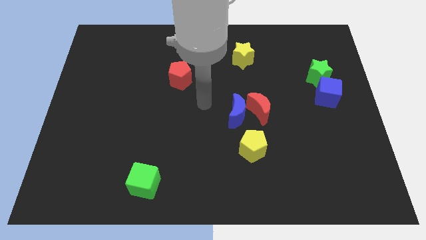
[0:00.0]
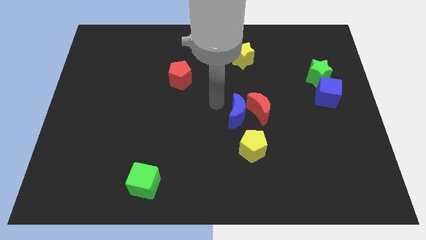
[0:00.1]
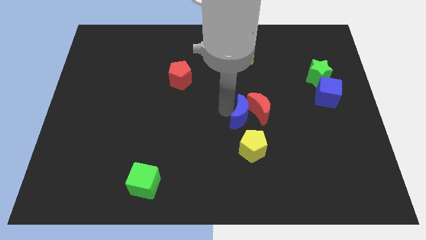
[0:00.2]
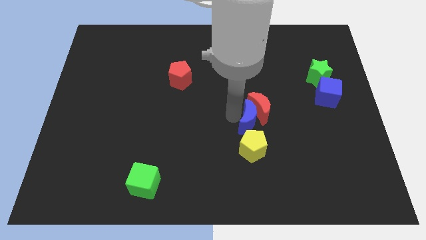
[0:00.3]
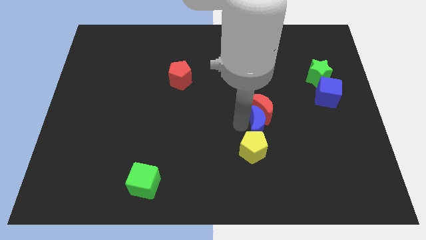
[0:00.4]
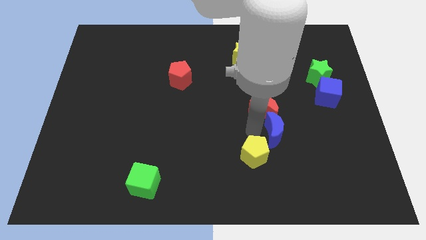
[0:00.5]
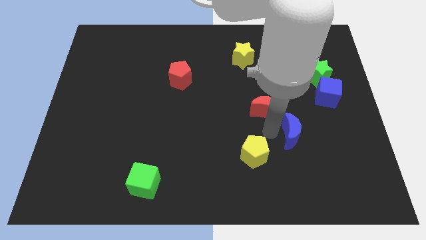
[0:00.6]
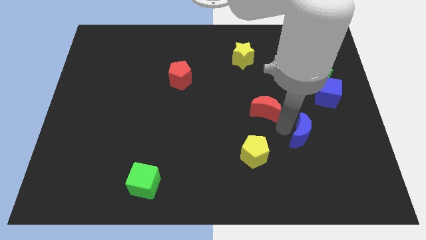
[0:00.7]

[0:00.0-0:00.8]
separate the red moon from the blue moon

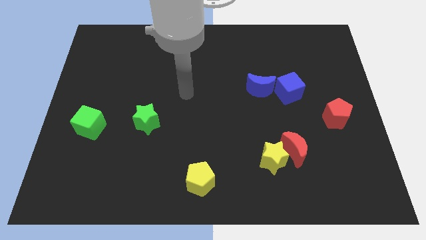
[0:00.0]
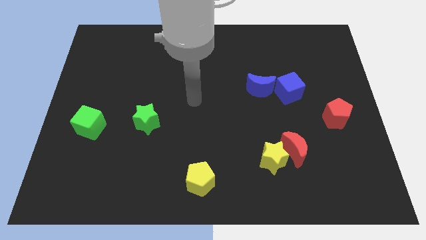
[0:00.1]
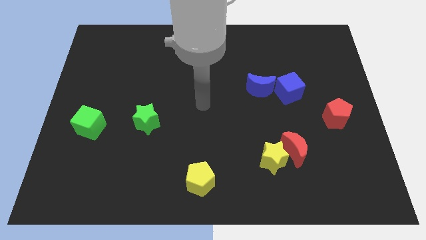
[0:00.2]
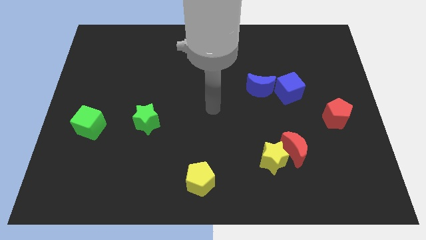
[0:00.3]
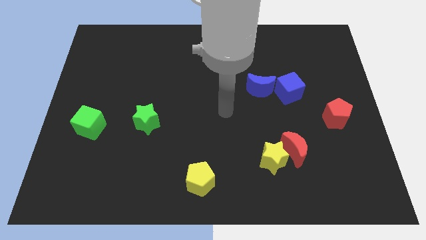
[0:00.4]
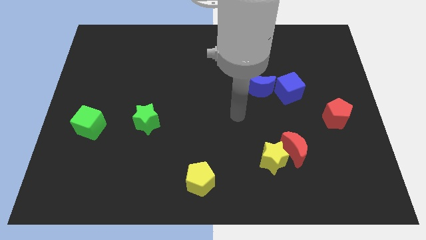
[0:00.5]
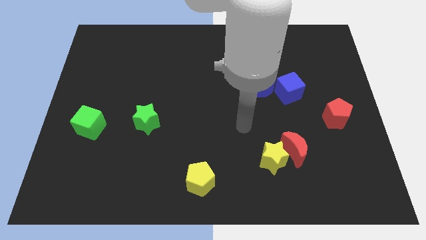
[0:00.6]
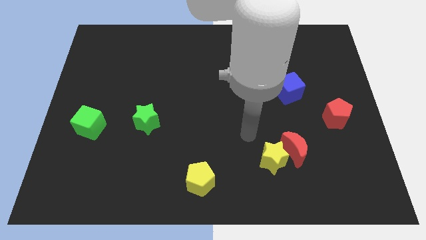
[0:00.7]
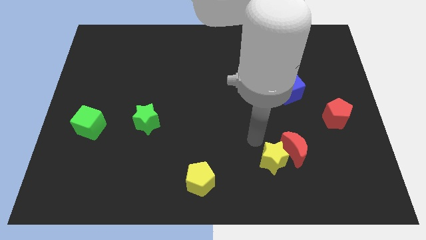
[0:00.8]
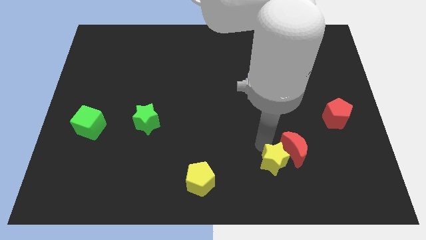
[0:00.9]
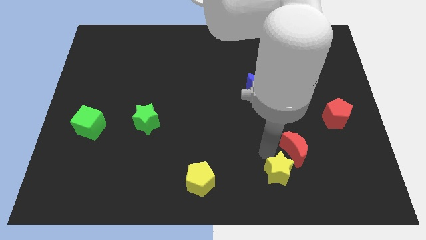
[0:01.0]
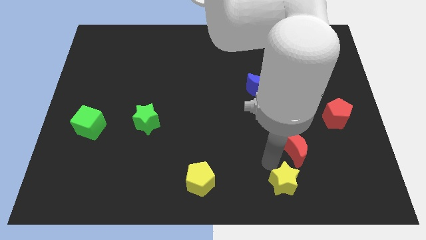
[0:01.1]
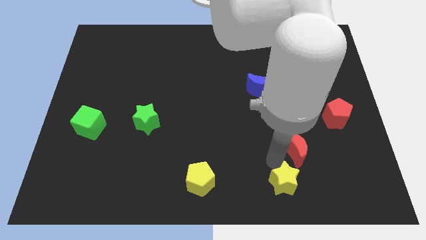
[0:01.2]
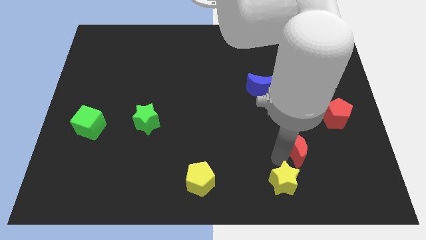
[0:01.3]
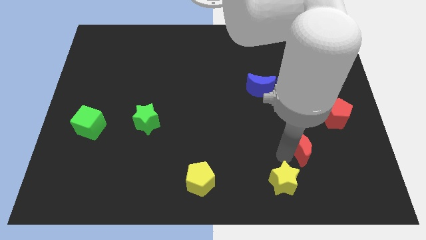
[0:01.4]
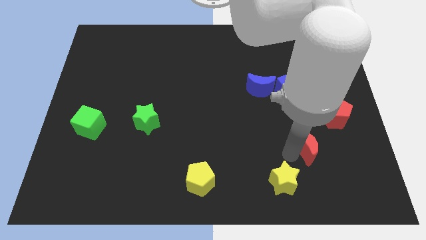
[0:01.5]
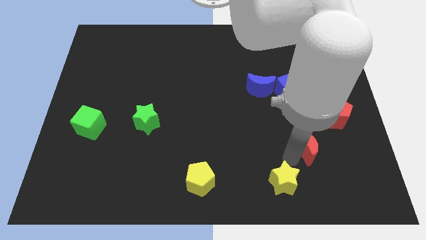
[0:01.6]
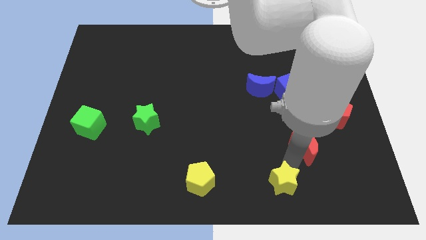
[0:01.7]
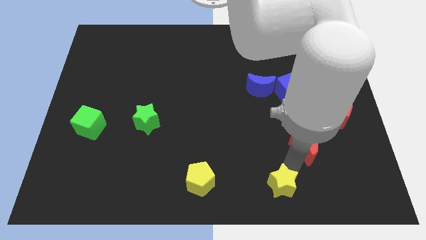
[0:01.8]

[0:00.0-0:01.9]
move the red moon away from the yellow star

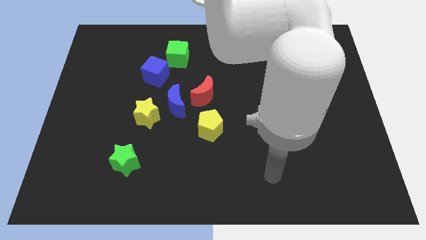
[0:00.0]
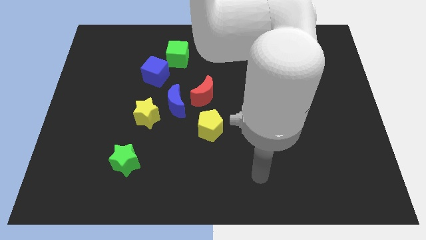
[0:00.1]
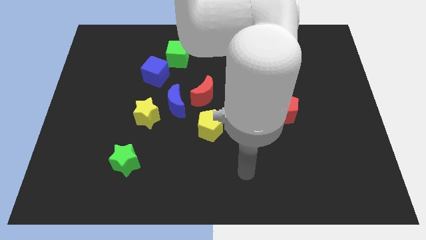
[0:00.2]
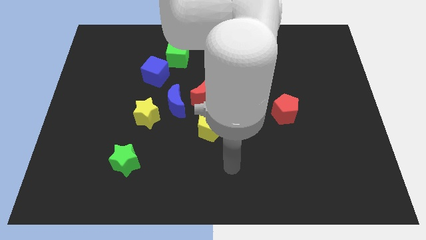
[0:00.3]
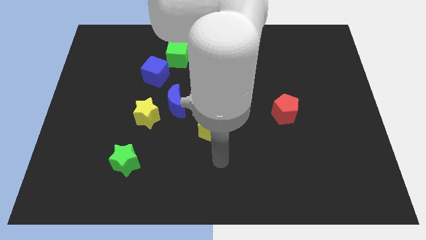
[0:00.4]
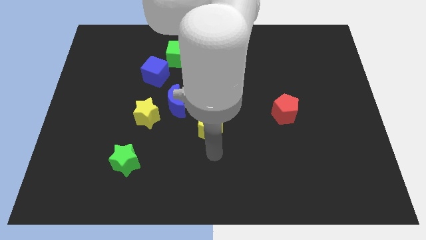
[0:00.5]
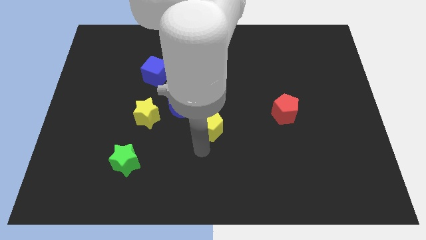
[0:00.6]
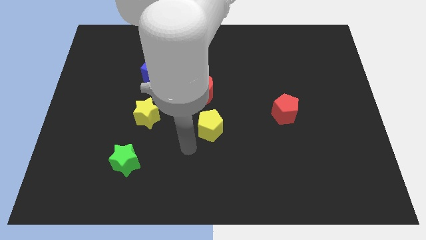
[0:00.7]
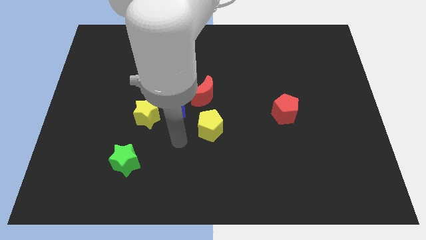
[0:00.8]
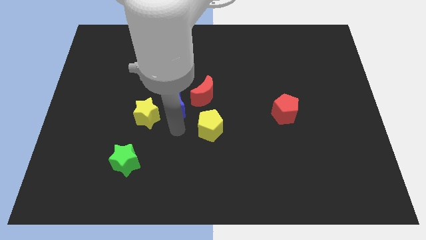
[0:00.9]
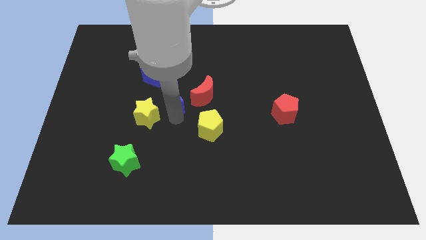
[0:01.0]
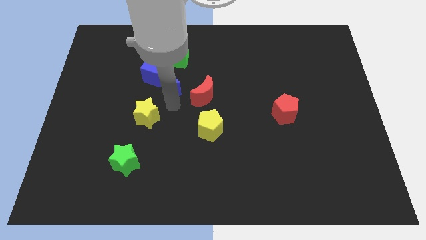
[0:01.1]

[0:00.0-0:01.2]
move the yellow star away from the blue moon

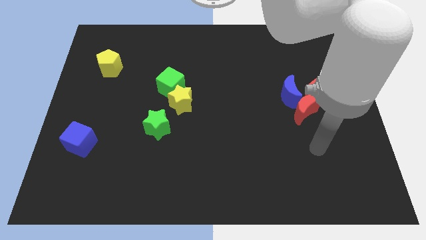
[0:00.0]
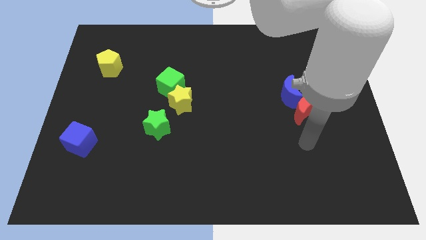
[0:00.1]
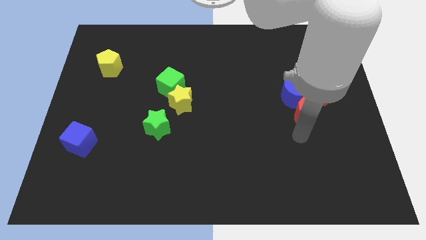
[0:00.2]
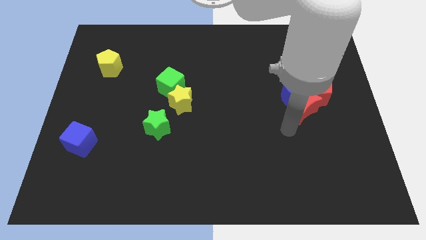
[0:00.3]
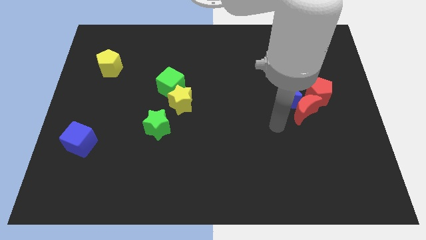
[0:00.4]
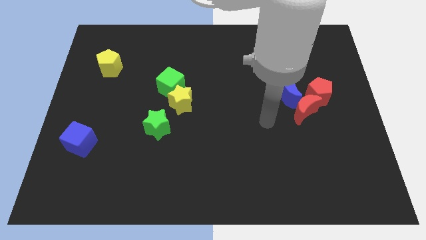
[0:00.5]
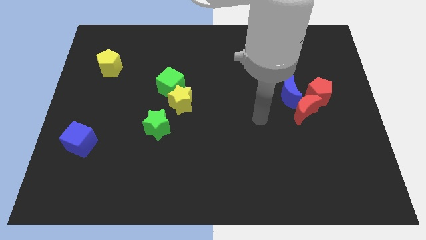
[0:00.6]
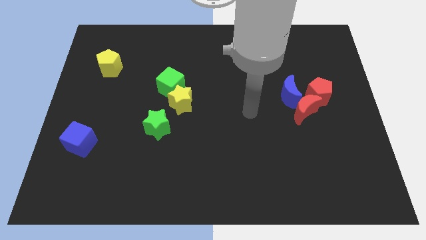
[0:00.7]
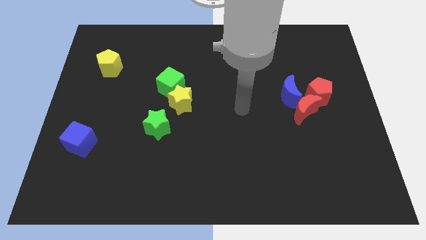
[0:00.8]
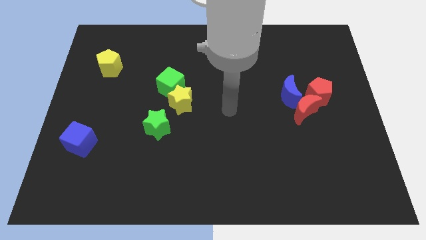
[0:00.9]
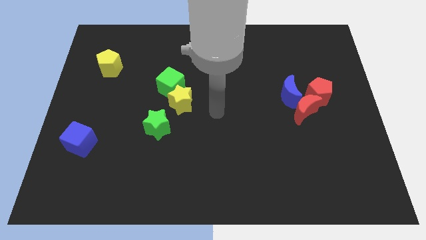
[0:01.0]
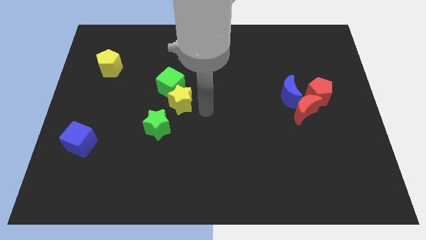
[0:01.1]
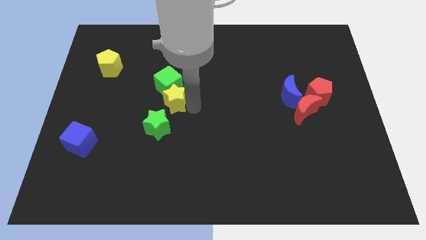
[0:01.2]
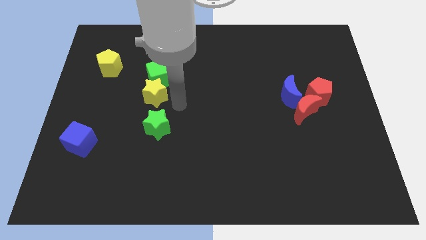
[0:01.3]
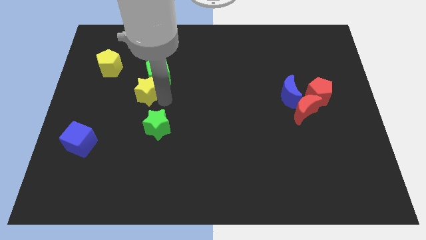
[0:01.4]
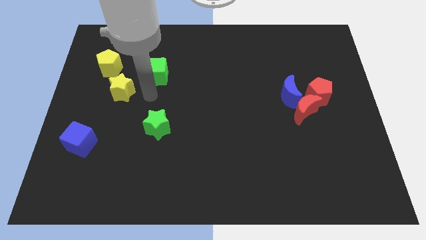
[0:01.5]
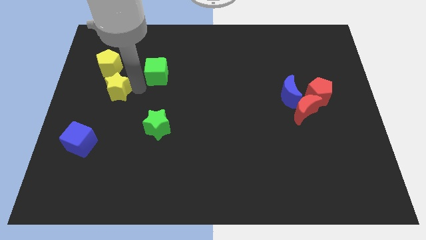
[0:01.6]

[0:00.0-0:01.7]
pull the green cube apart from the yellow star

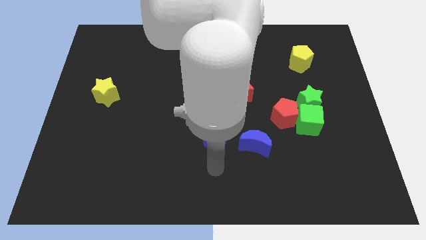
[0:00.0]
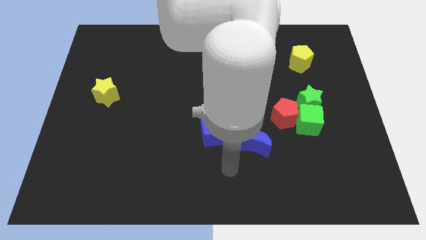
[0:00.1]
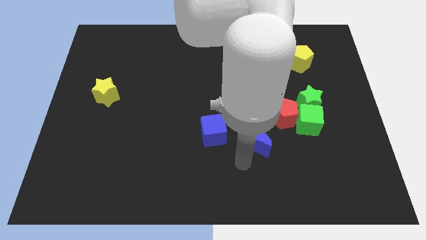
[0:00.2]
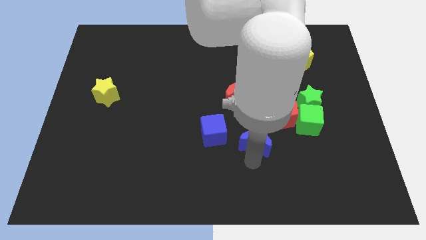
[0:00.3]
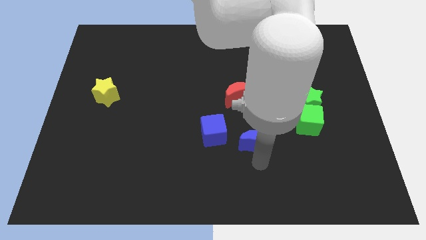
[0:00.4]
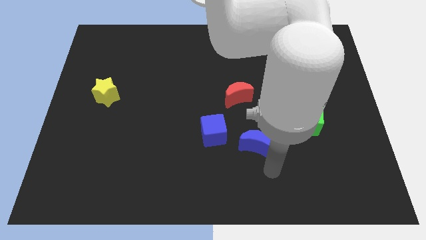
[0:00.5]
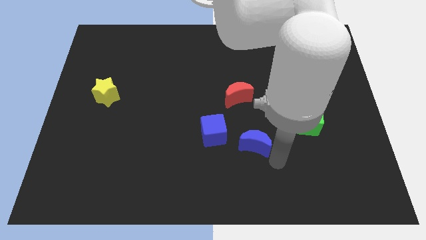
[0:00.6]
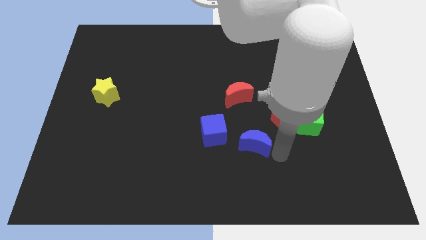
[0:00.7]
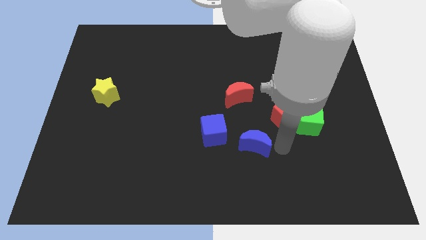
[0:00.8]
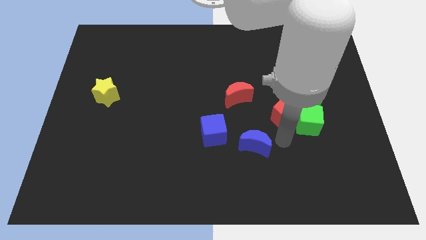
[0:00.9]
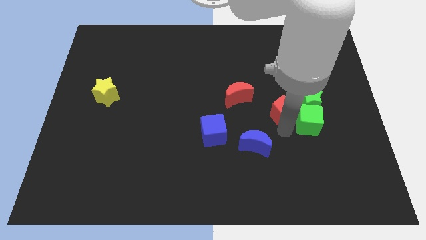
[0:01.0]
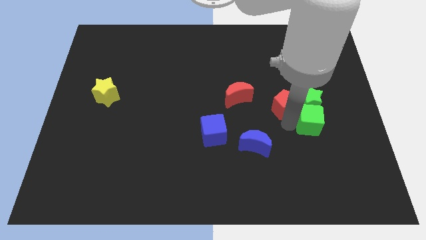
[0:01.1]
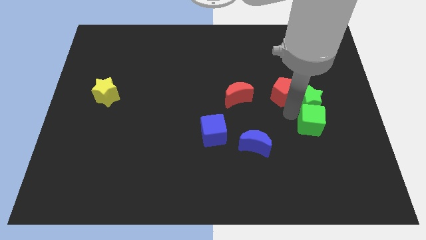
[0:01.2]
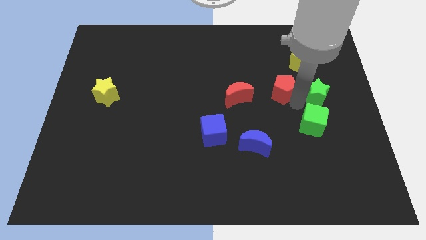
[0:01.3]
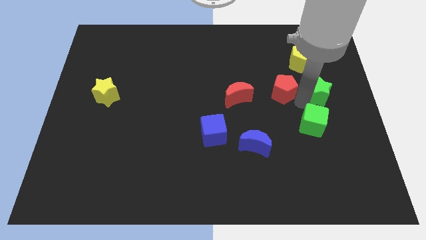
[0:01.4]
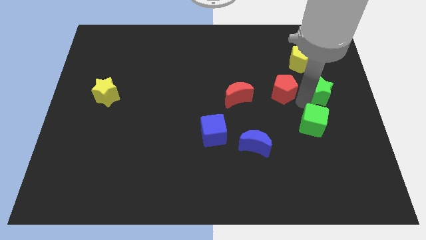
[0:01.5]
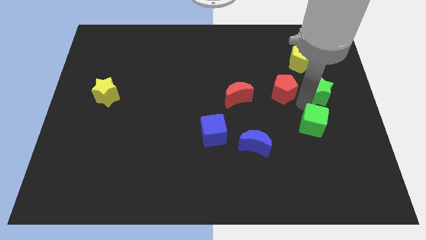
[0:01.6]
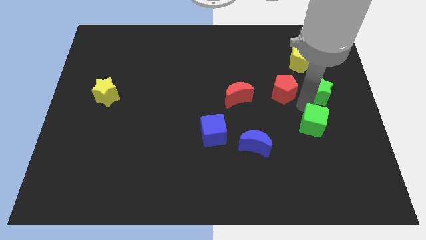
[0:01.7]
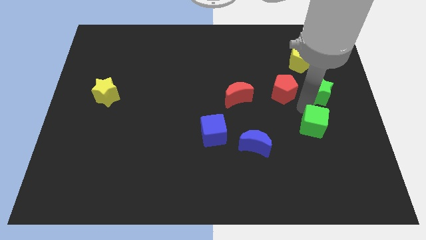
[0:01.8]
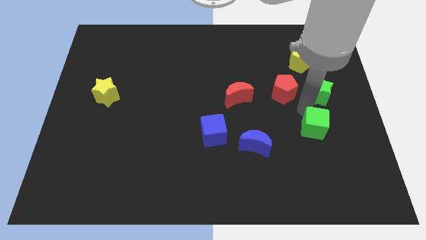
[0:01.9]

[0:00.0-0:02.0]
pull the green cube apart from the red pentagon and green star

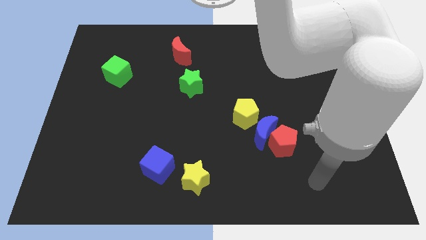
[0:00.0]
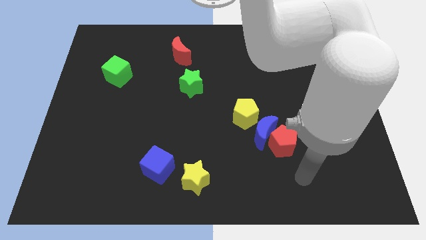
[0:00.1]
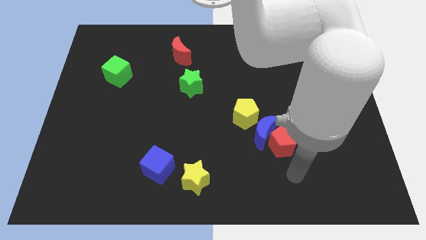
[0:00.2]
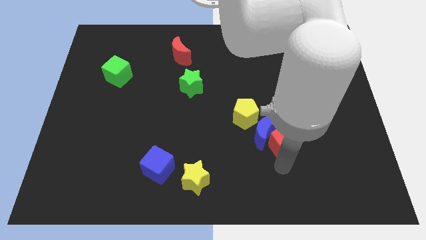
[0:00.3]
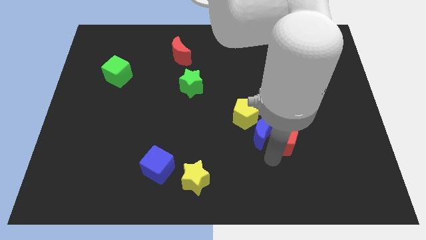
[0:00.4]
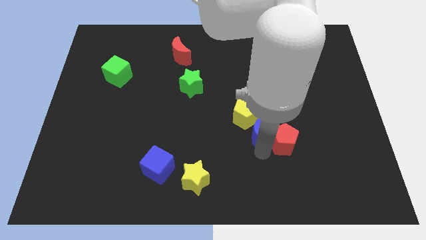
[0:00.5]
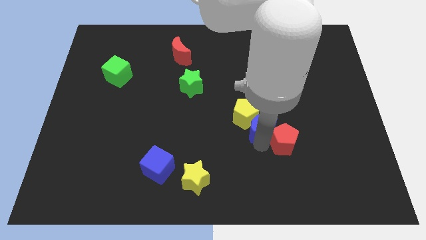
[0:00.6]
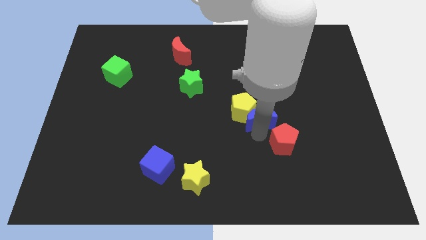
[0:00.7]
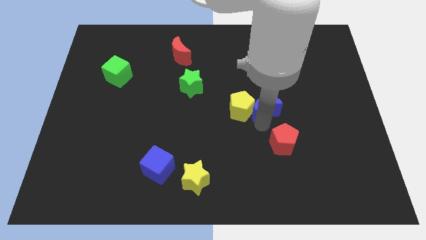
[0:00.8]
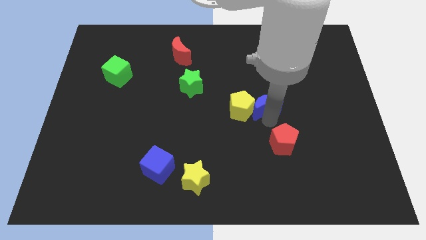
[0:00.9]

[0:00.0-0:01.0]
move the red pentagon away from the blue moon

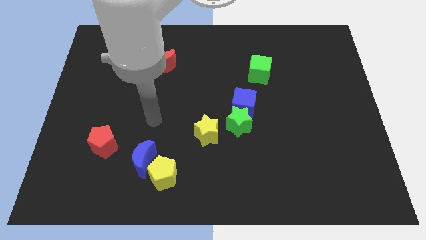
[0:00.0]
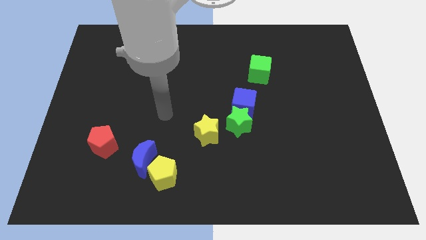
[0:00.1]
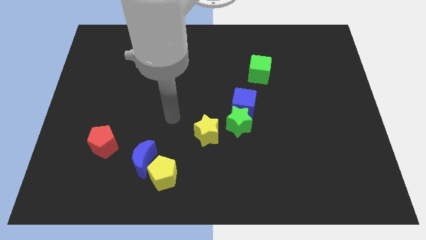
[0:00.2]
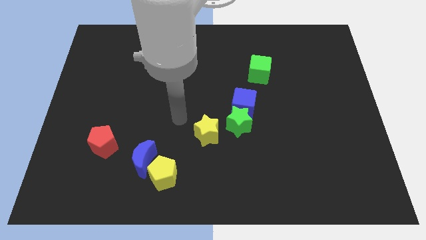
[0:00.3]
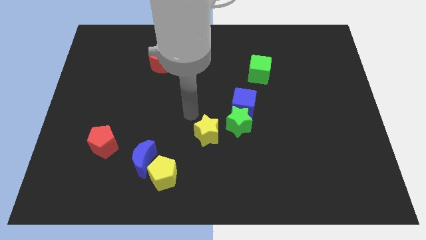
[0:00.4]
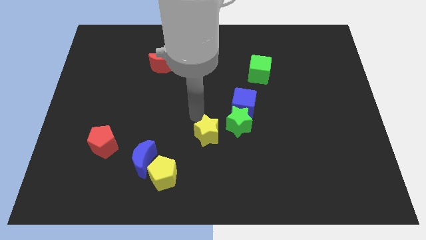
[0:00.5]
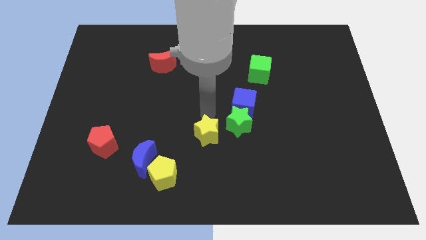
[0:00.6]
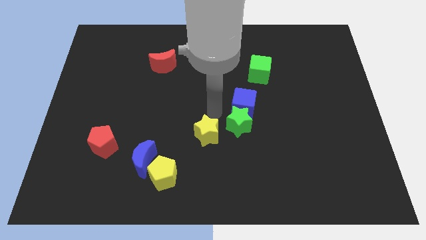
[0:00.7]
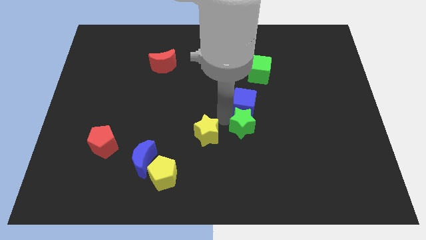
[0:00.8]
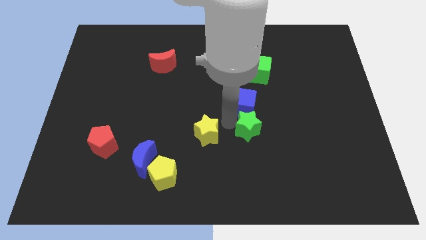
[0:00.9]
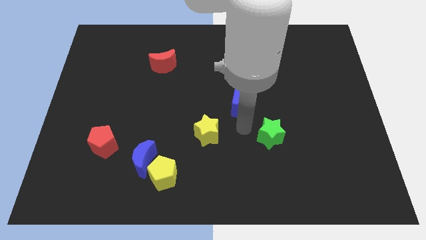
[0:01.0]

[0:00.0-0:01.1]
separate the blue cube from the green star
